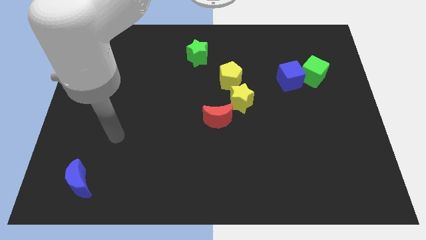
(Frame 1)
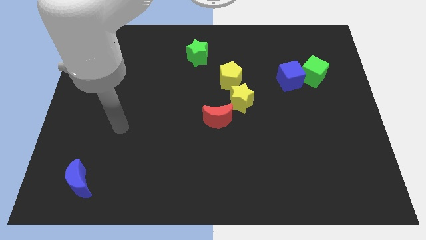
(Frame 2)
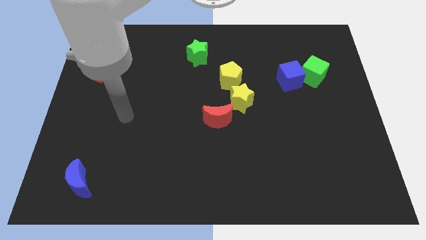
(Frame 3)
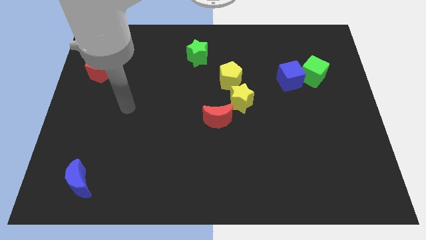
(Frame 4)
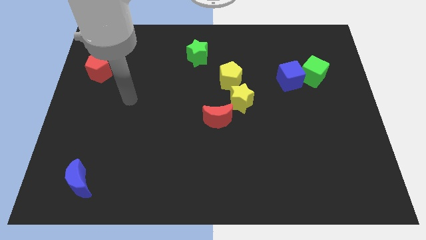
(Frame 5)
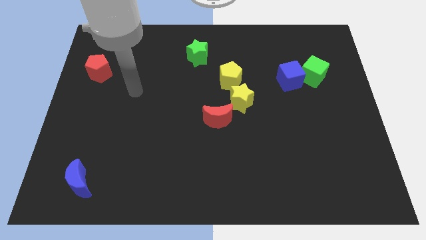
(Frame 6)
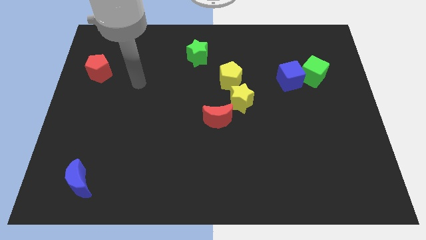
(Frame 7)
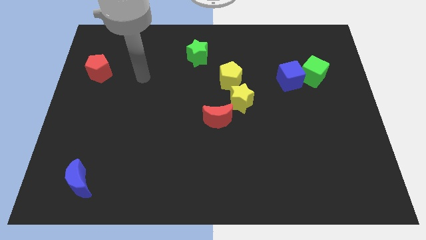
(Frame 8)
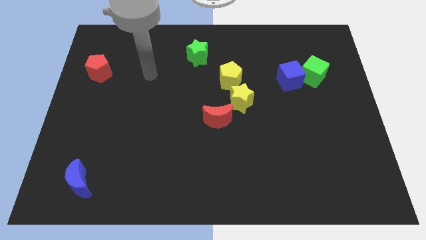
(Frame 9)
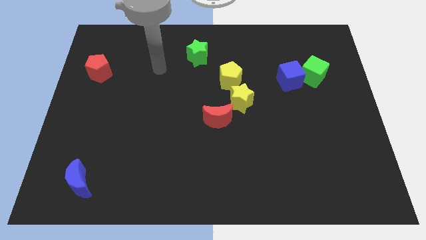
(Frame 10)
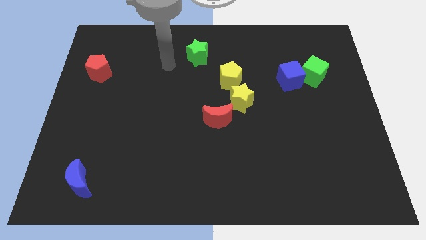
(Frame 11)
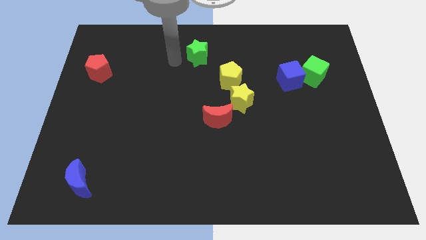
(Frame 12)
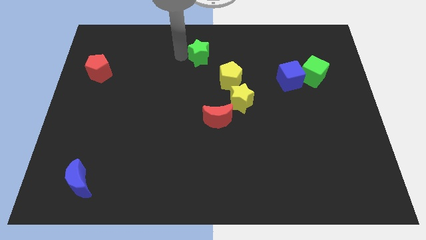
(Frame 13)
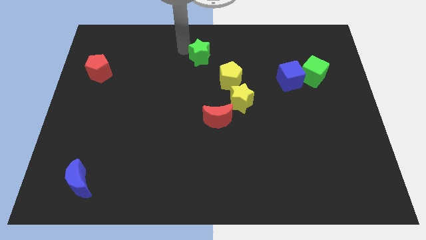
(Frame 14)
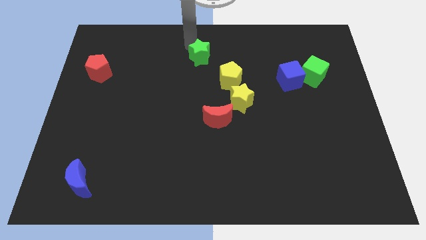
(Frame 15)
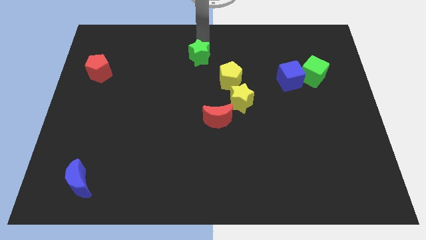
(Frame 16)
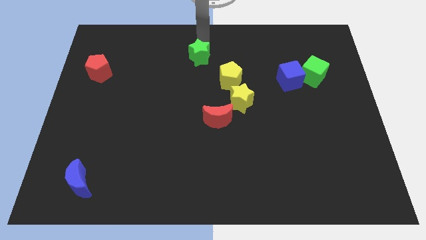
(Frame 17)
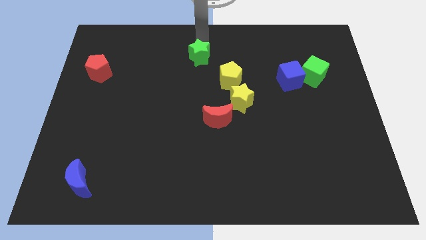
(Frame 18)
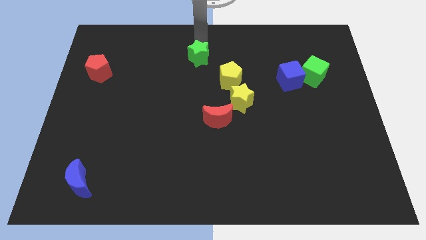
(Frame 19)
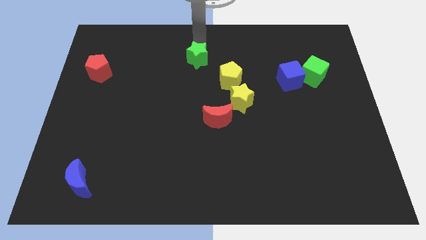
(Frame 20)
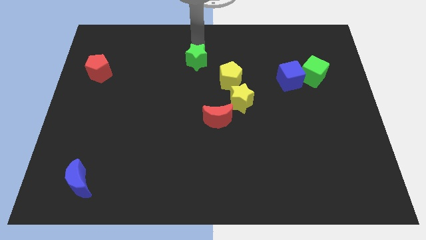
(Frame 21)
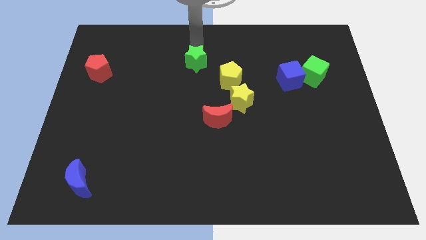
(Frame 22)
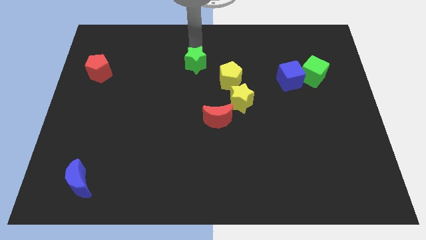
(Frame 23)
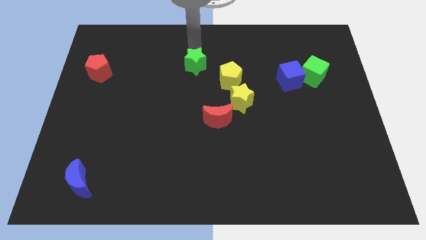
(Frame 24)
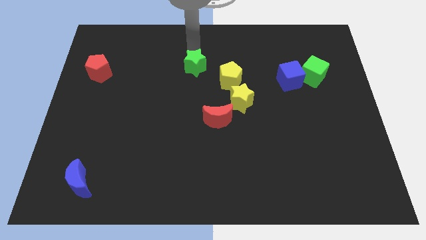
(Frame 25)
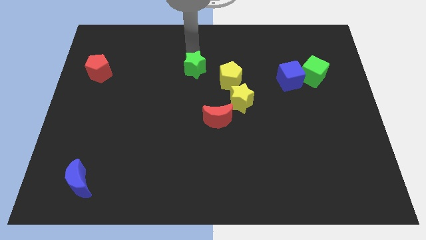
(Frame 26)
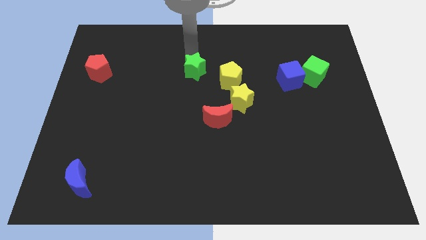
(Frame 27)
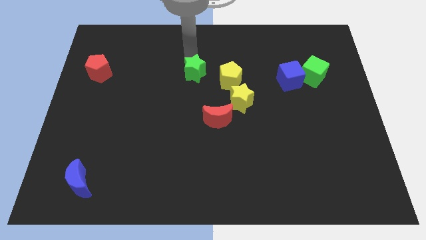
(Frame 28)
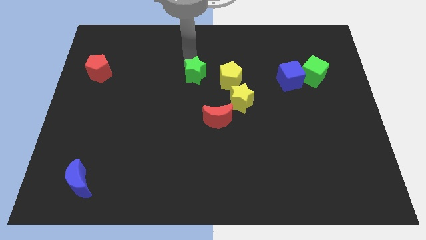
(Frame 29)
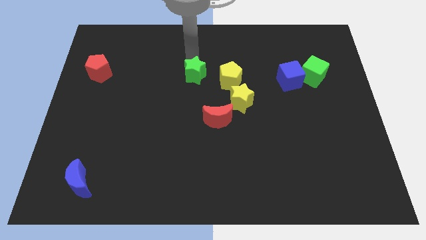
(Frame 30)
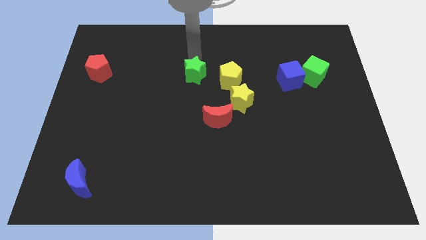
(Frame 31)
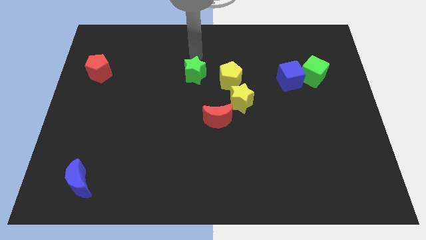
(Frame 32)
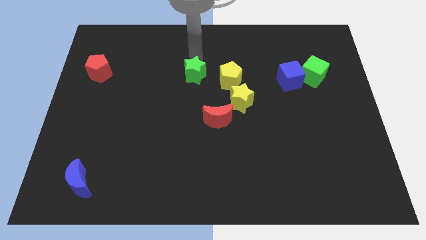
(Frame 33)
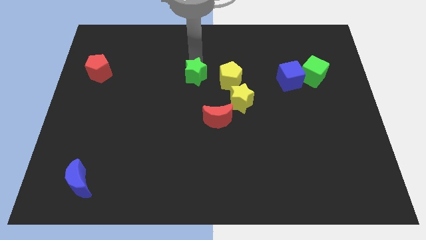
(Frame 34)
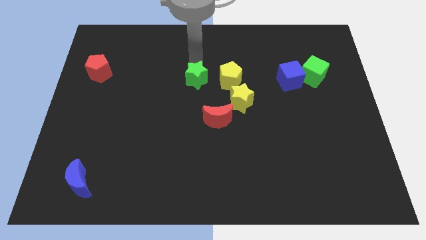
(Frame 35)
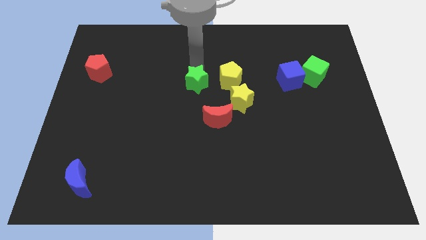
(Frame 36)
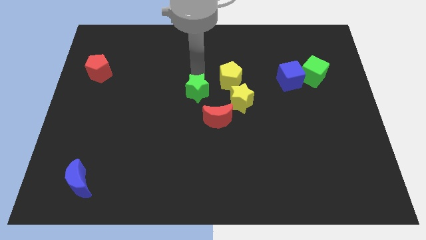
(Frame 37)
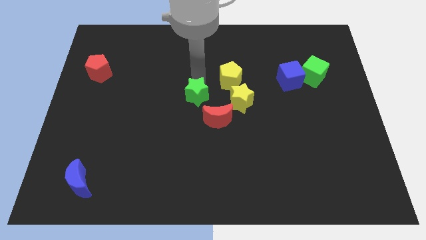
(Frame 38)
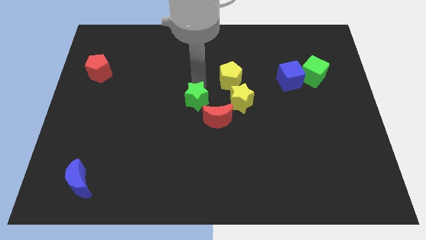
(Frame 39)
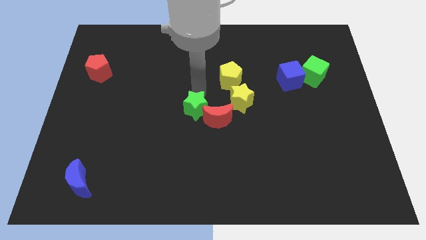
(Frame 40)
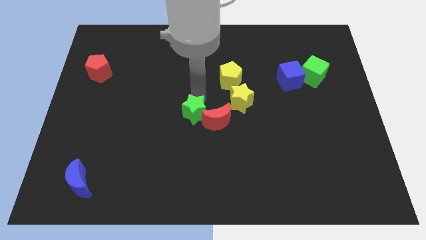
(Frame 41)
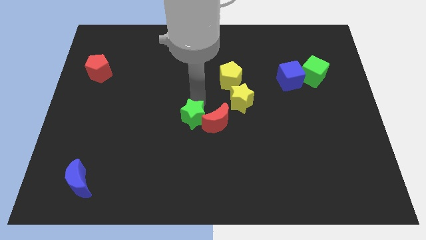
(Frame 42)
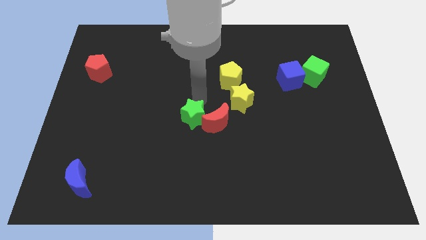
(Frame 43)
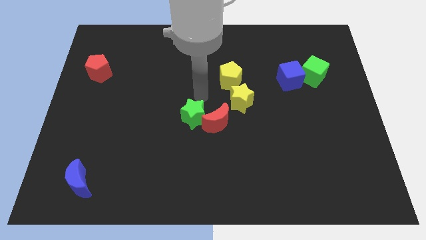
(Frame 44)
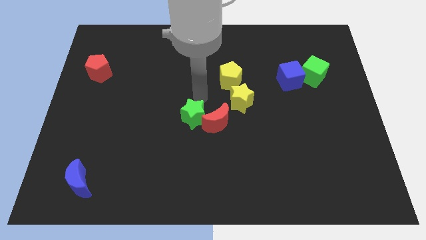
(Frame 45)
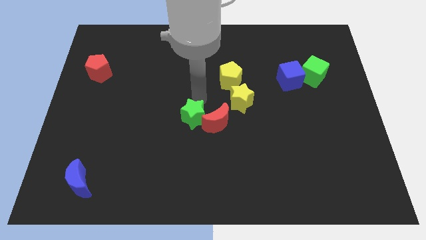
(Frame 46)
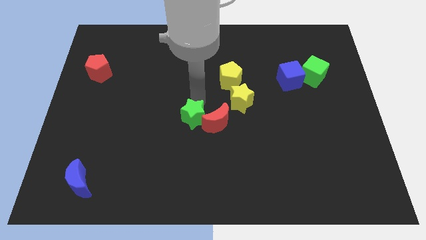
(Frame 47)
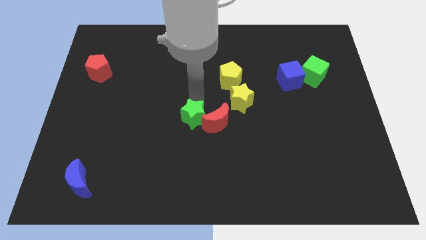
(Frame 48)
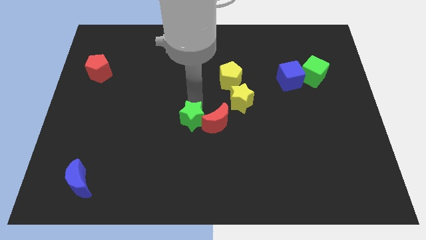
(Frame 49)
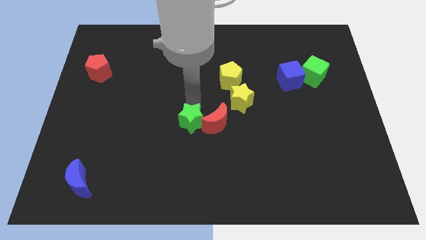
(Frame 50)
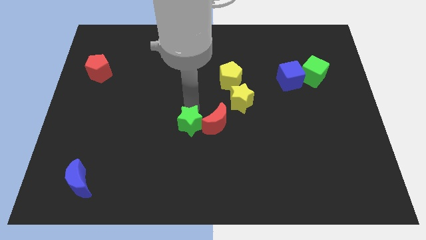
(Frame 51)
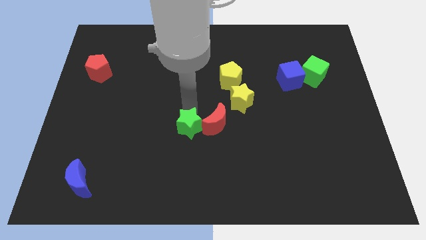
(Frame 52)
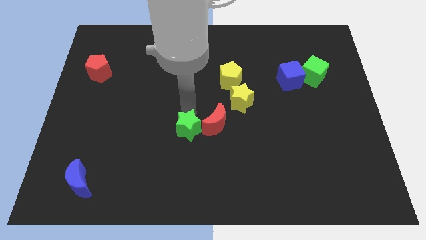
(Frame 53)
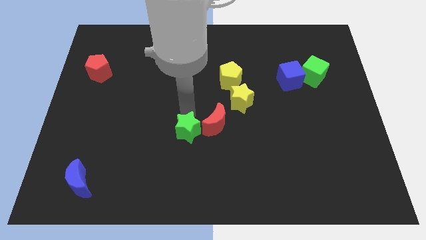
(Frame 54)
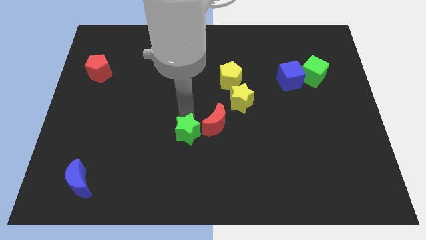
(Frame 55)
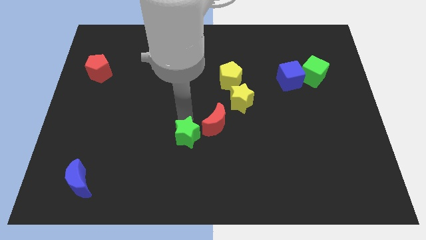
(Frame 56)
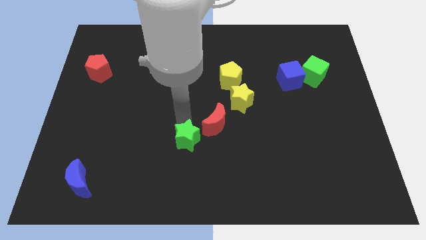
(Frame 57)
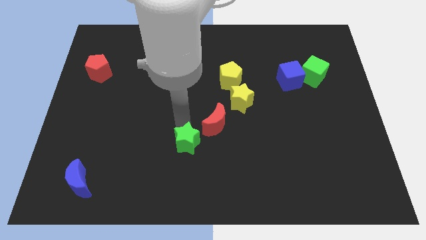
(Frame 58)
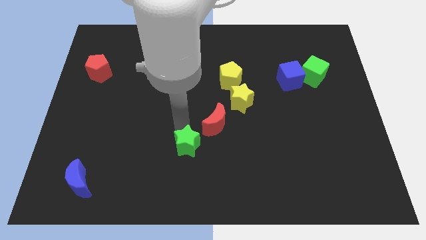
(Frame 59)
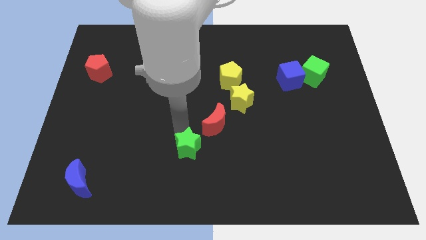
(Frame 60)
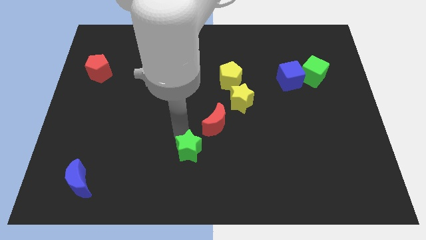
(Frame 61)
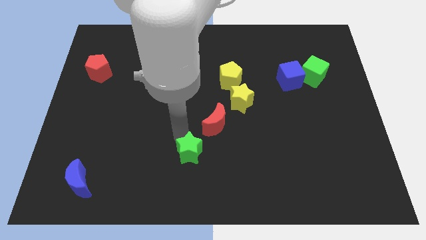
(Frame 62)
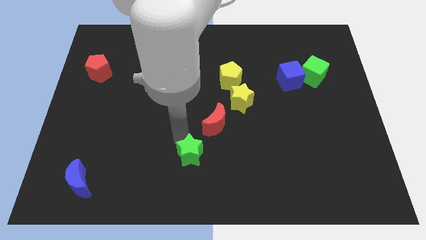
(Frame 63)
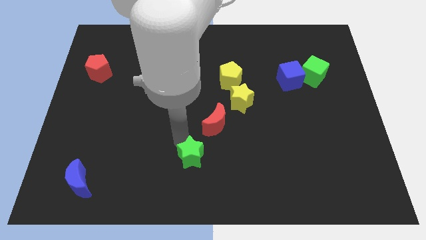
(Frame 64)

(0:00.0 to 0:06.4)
put the green star to the bottom
